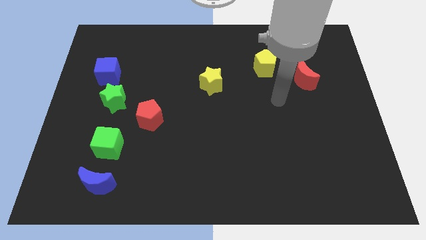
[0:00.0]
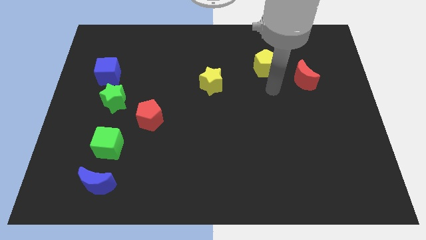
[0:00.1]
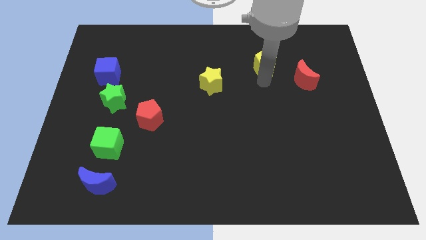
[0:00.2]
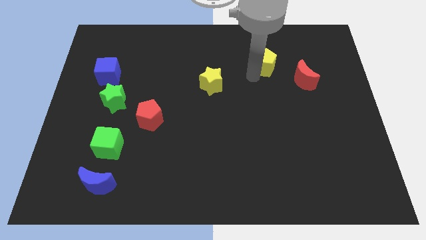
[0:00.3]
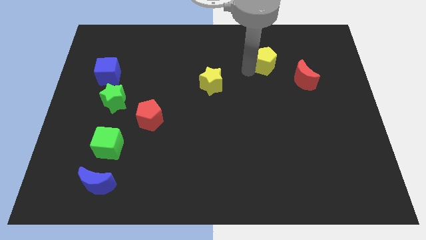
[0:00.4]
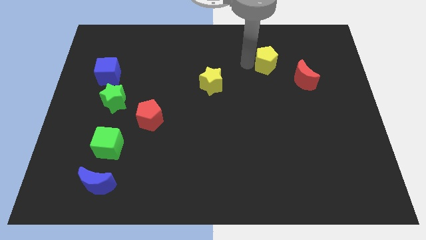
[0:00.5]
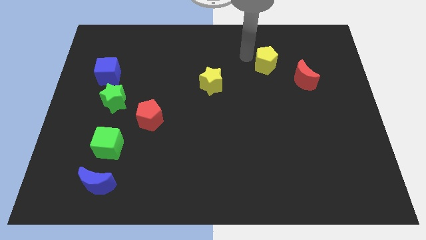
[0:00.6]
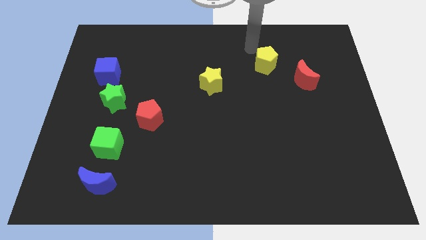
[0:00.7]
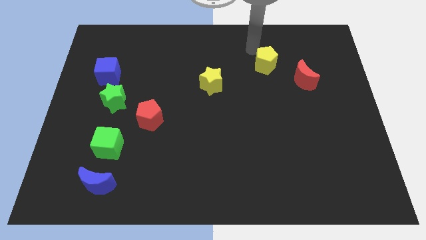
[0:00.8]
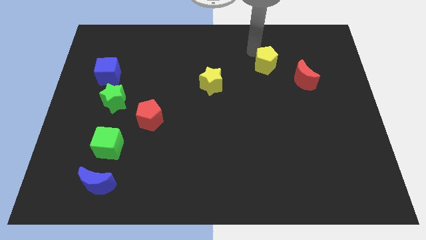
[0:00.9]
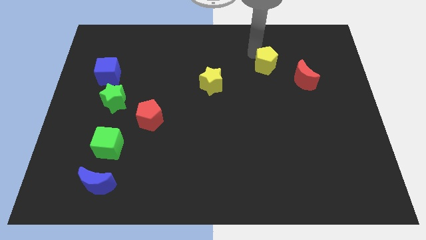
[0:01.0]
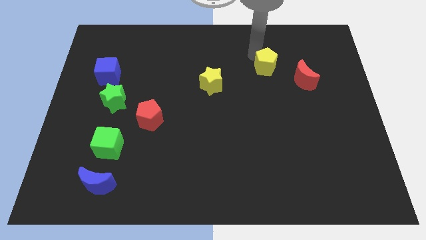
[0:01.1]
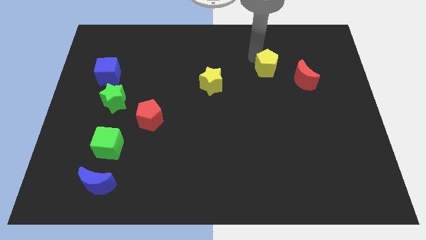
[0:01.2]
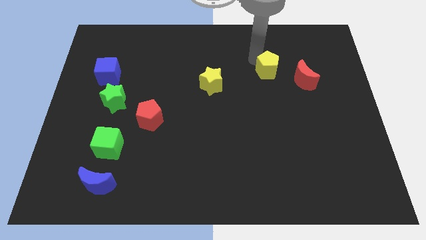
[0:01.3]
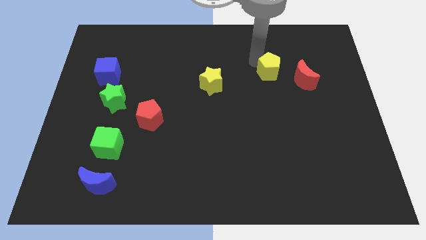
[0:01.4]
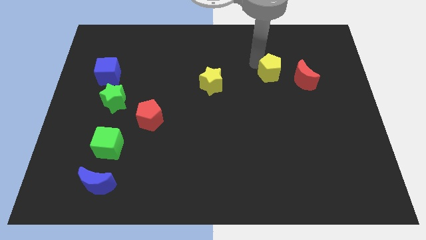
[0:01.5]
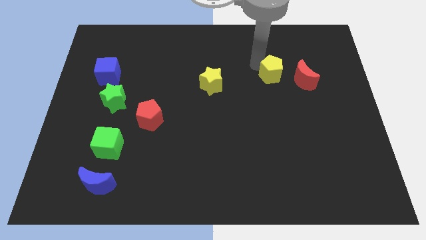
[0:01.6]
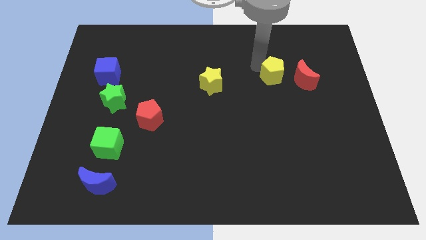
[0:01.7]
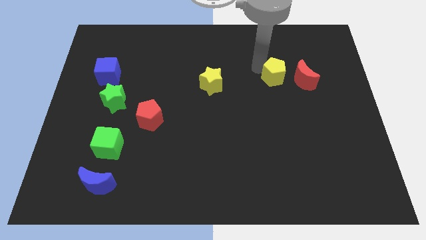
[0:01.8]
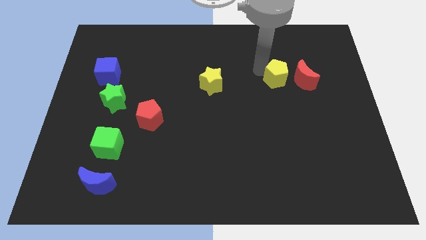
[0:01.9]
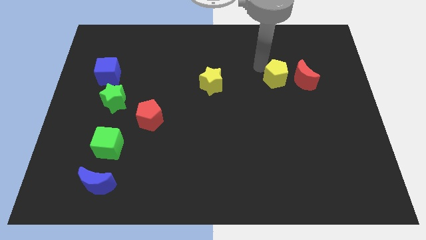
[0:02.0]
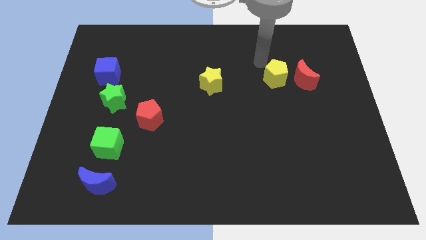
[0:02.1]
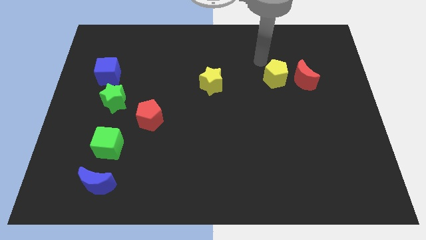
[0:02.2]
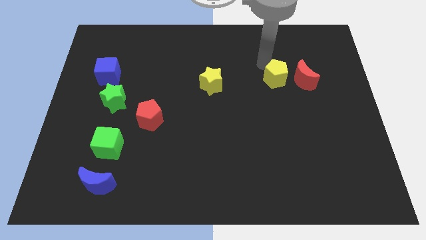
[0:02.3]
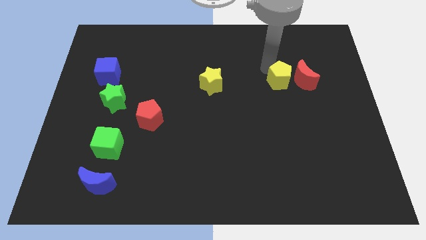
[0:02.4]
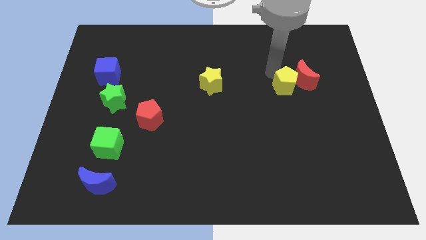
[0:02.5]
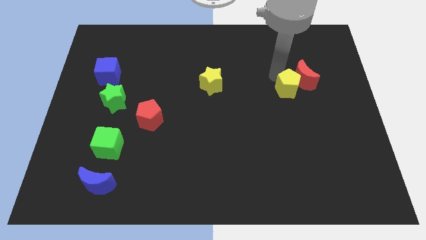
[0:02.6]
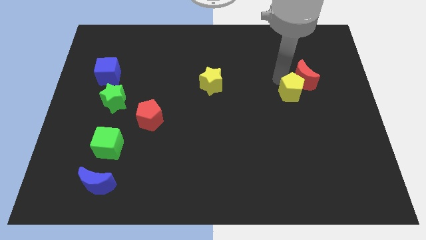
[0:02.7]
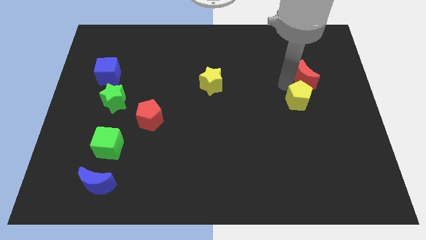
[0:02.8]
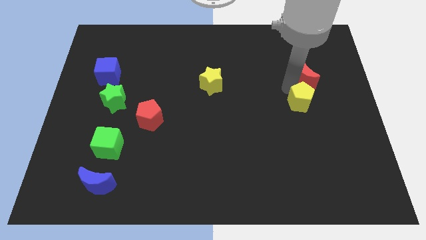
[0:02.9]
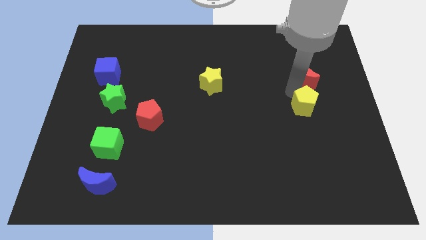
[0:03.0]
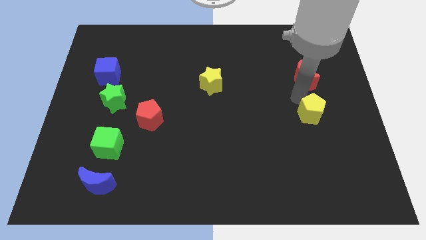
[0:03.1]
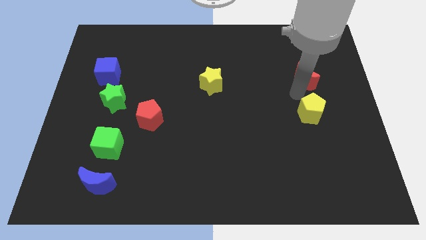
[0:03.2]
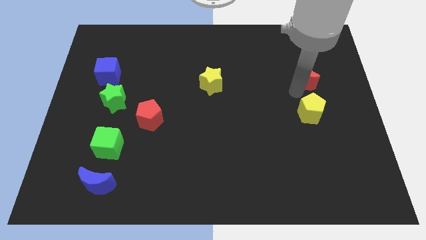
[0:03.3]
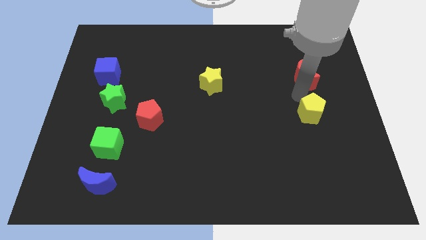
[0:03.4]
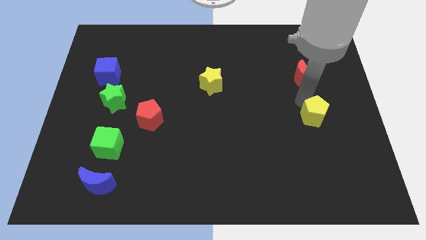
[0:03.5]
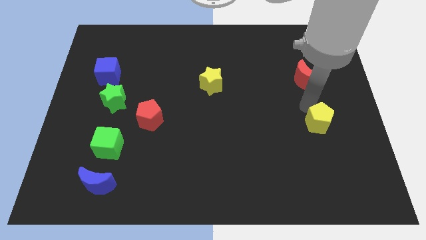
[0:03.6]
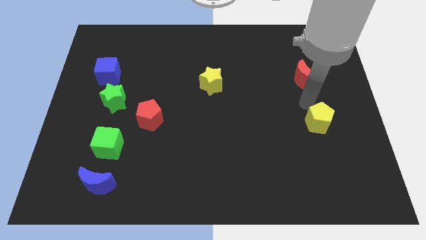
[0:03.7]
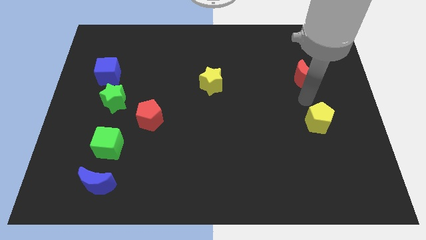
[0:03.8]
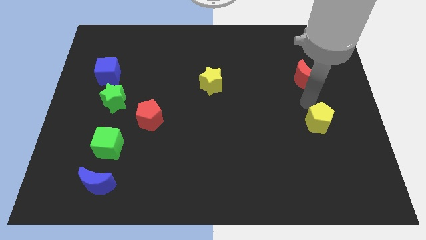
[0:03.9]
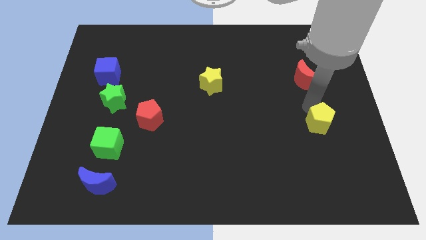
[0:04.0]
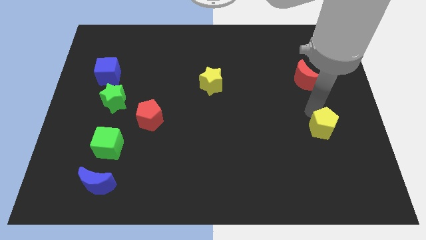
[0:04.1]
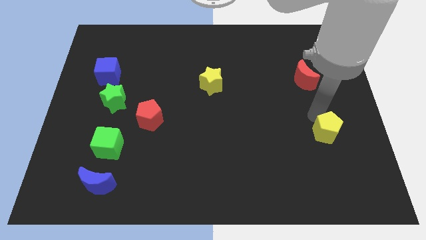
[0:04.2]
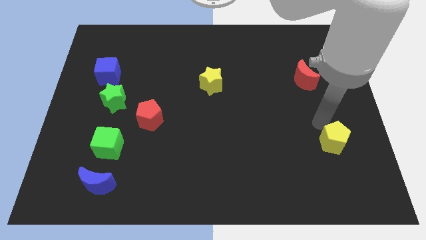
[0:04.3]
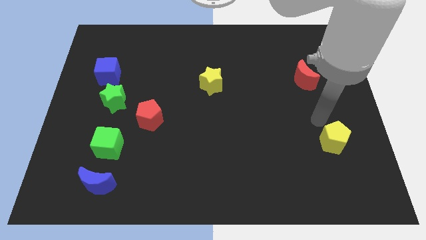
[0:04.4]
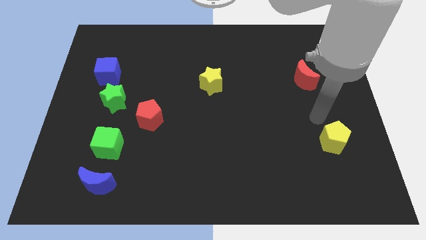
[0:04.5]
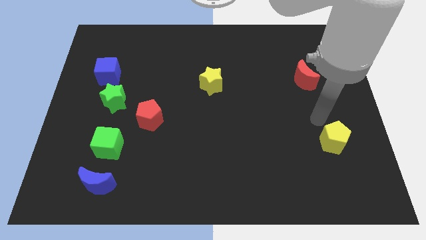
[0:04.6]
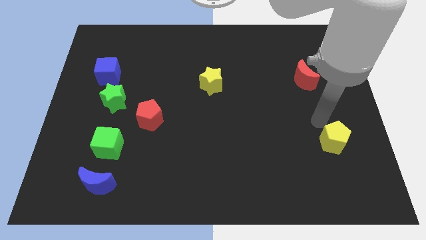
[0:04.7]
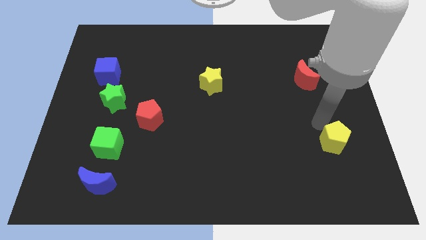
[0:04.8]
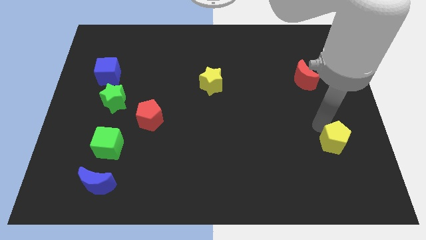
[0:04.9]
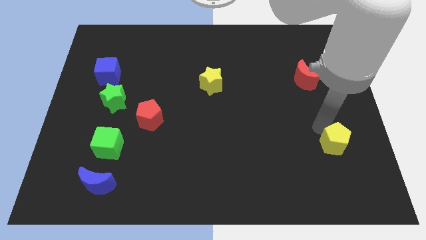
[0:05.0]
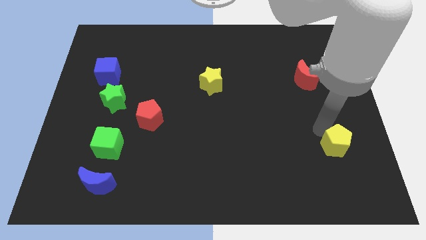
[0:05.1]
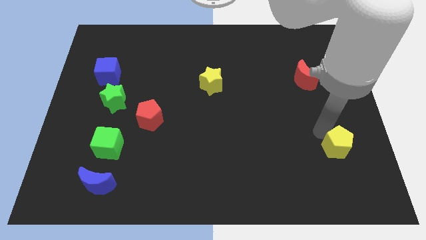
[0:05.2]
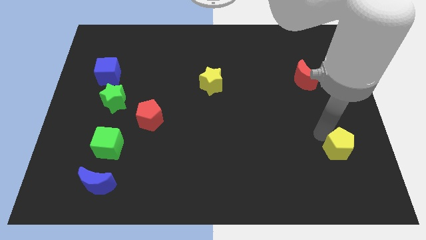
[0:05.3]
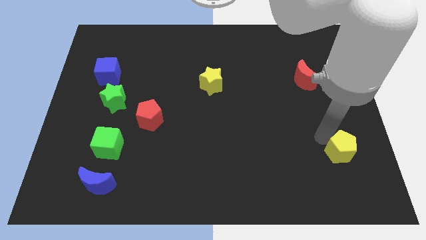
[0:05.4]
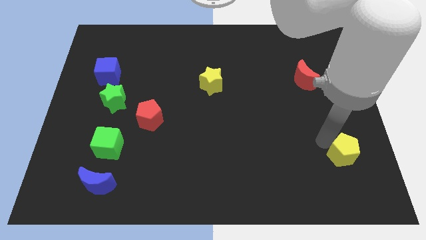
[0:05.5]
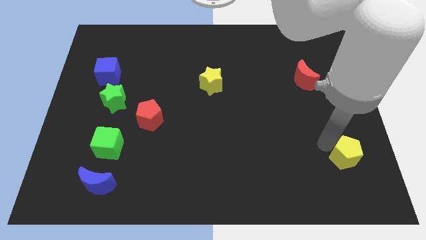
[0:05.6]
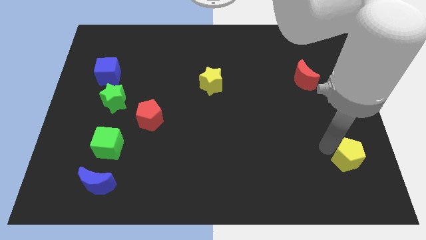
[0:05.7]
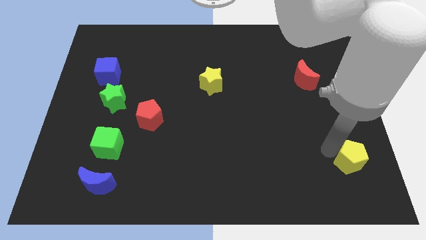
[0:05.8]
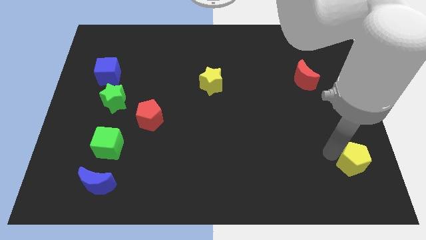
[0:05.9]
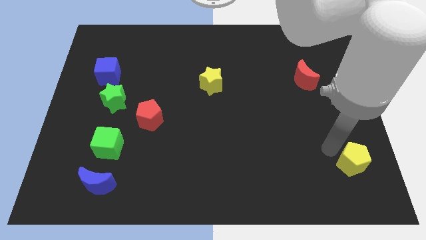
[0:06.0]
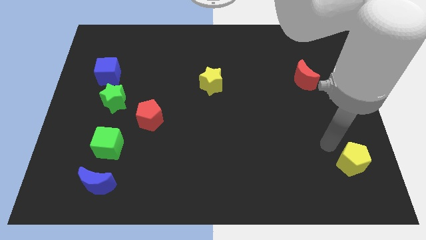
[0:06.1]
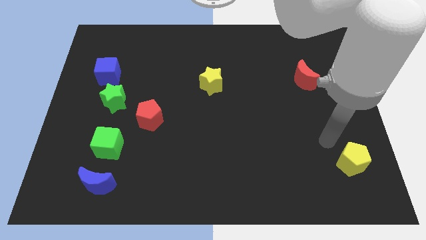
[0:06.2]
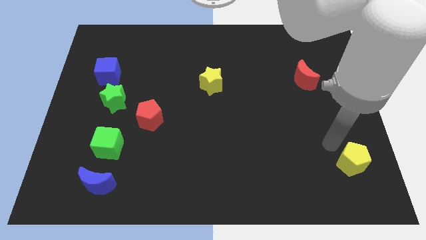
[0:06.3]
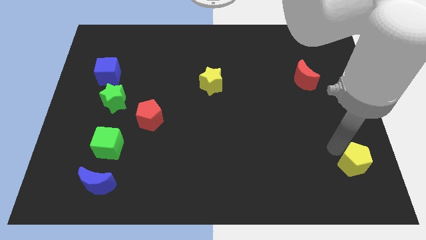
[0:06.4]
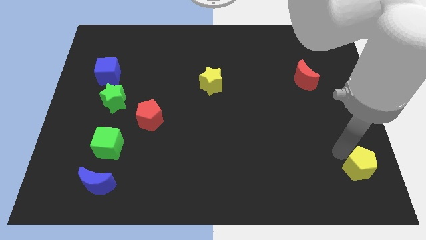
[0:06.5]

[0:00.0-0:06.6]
move the yellow pentagon to the lower right corner

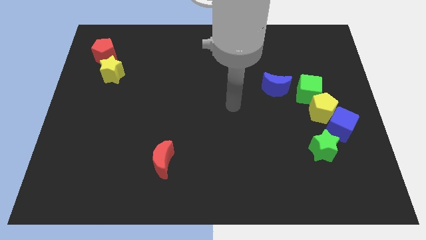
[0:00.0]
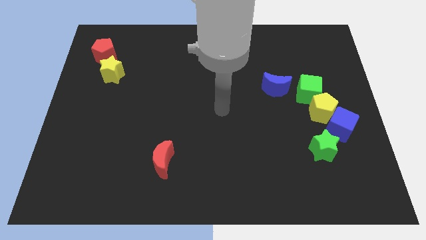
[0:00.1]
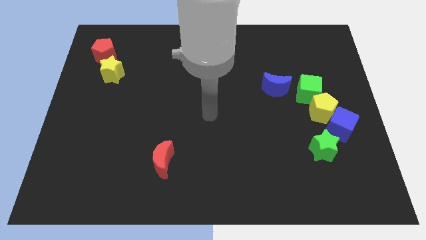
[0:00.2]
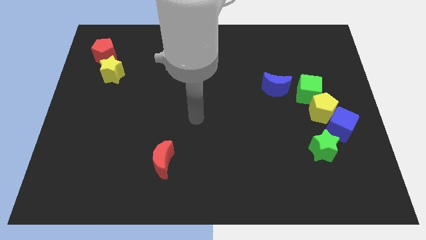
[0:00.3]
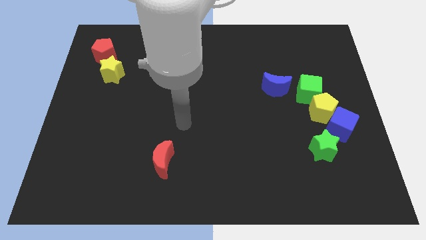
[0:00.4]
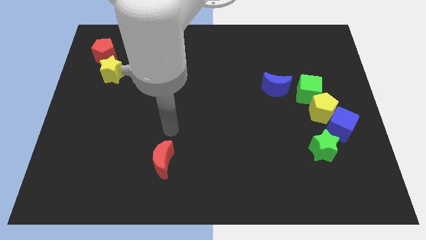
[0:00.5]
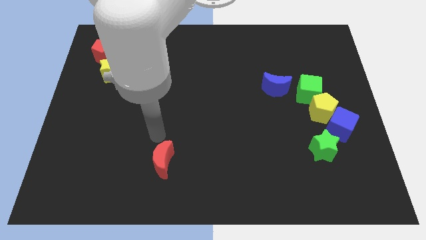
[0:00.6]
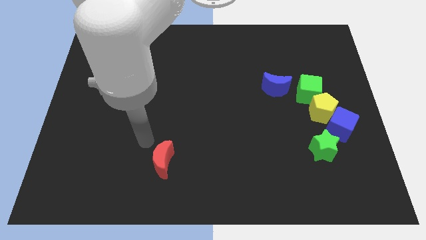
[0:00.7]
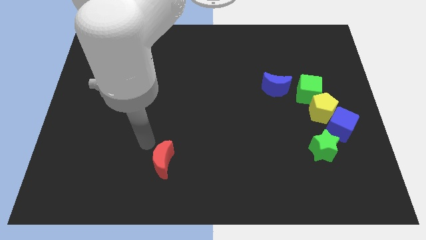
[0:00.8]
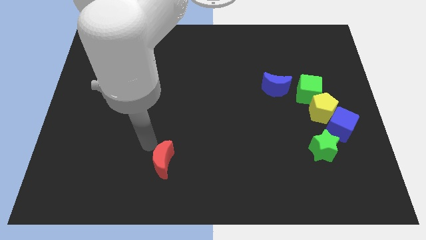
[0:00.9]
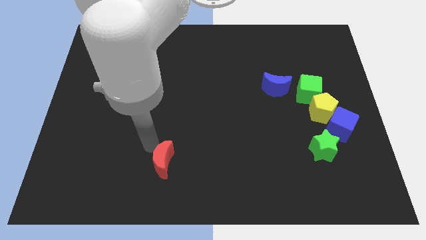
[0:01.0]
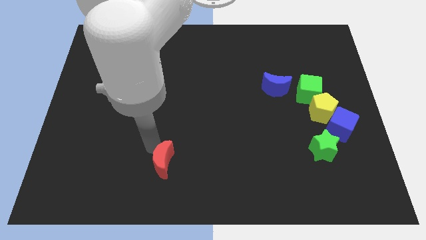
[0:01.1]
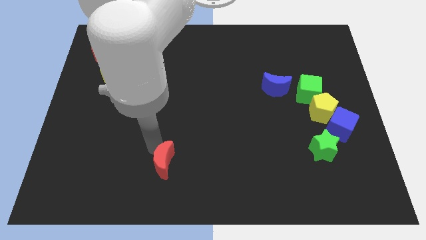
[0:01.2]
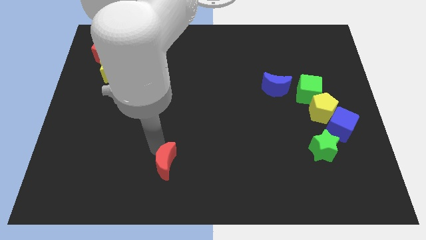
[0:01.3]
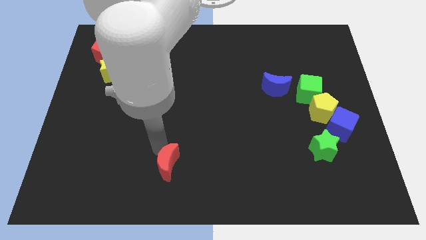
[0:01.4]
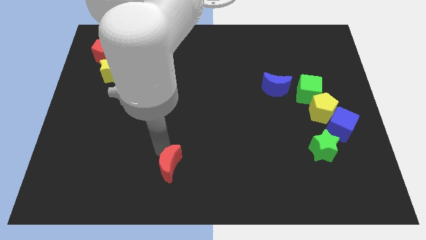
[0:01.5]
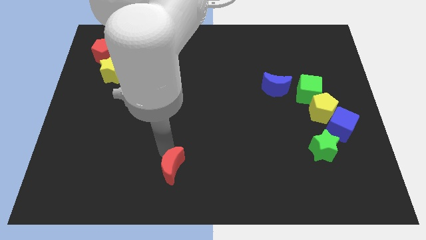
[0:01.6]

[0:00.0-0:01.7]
push the red moon to the bottom side
